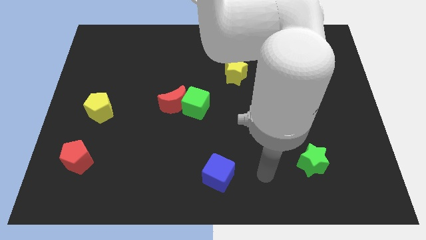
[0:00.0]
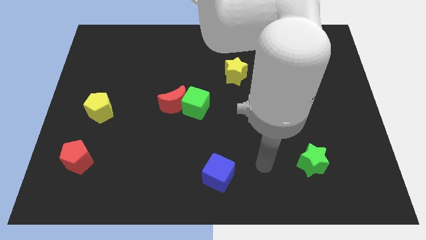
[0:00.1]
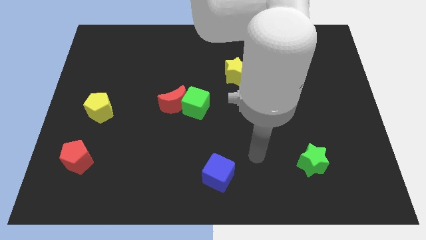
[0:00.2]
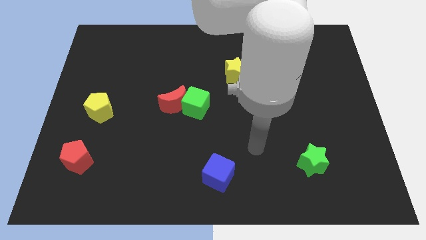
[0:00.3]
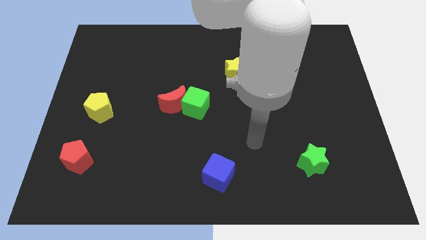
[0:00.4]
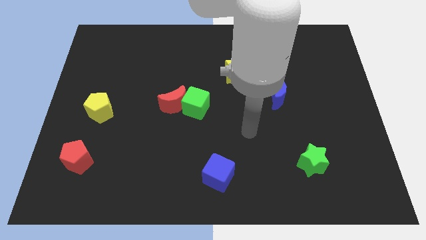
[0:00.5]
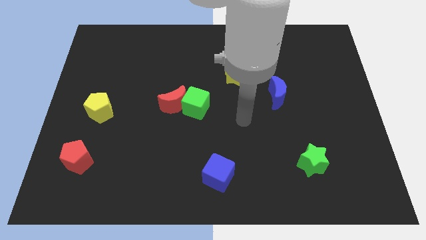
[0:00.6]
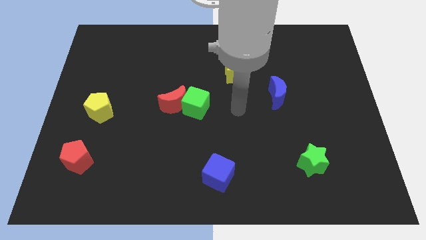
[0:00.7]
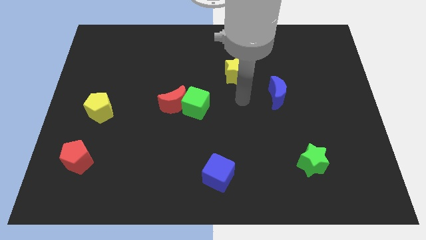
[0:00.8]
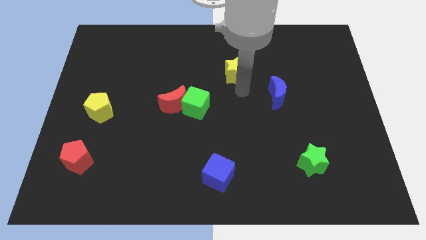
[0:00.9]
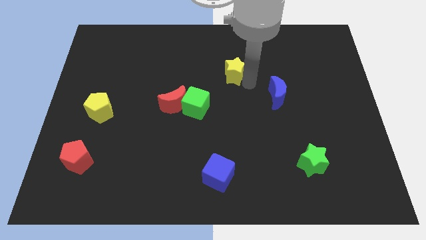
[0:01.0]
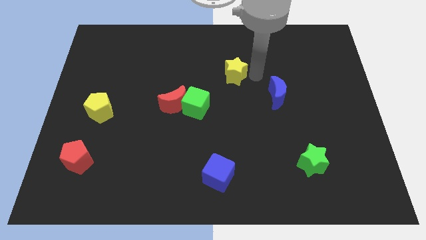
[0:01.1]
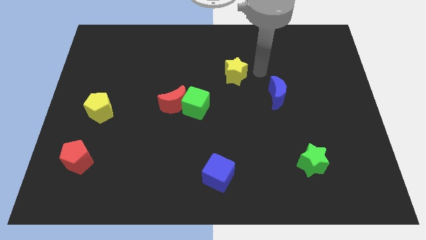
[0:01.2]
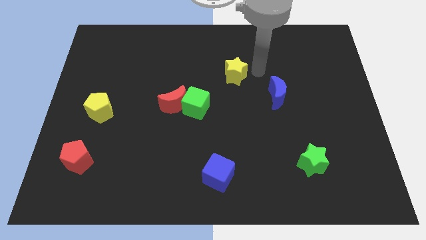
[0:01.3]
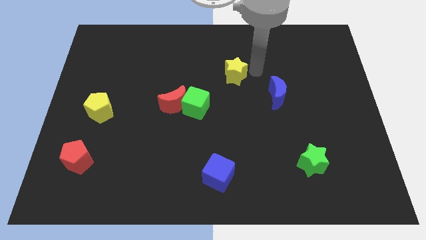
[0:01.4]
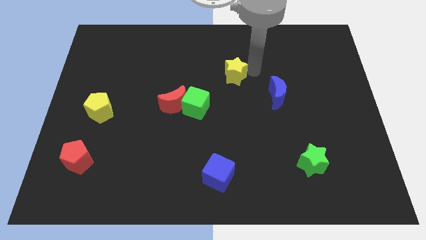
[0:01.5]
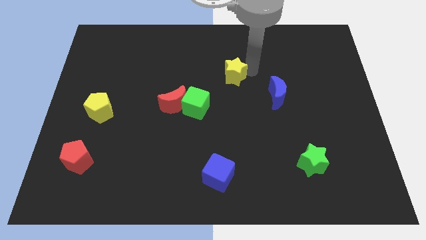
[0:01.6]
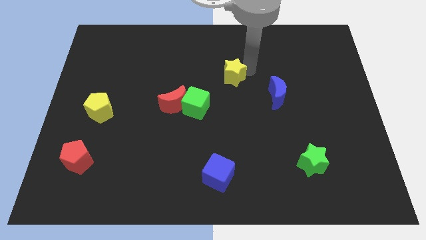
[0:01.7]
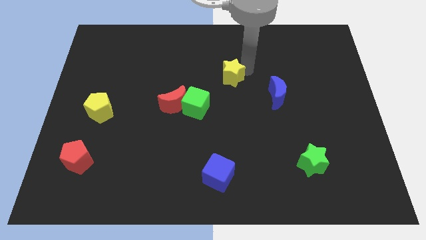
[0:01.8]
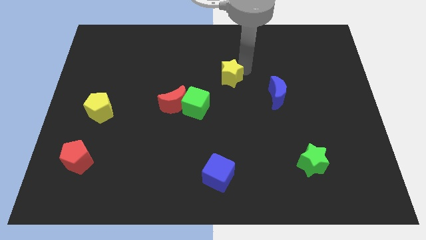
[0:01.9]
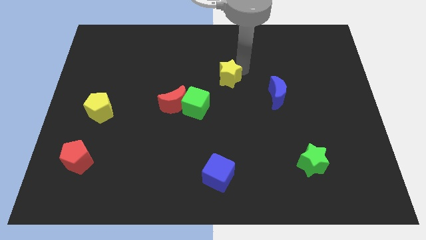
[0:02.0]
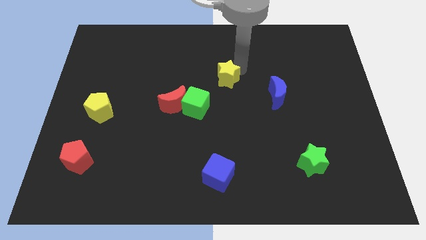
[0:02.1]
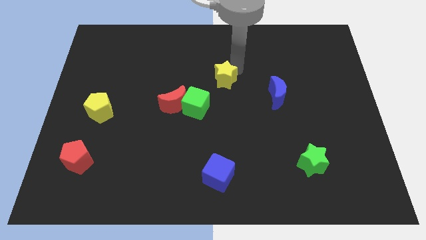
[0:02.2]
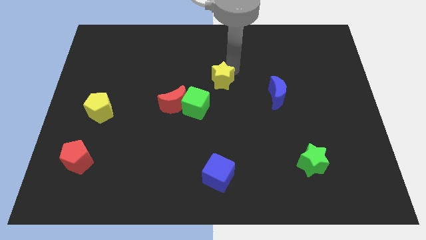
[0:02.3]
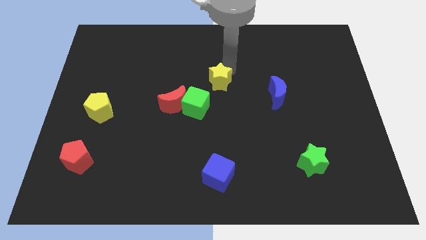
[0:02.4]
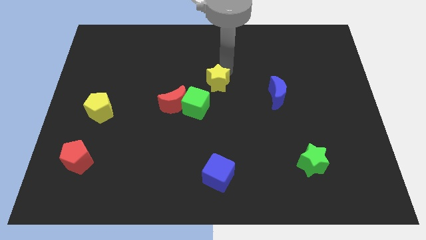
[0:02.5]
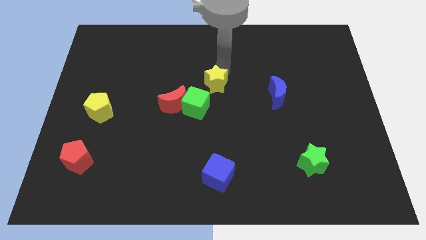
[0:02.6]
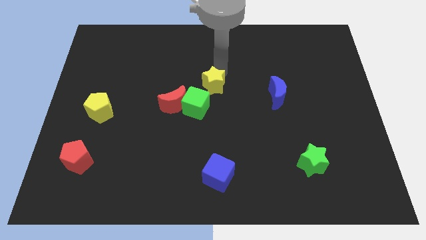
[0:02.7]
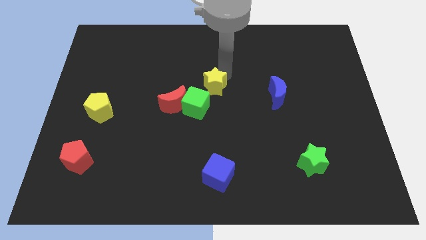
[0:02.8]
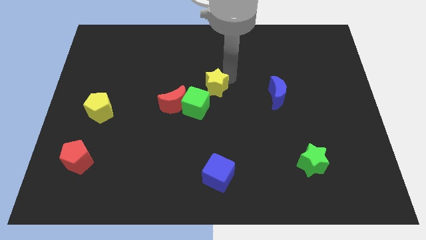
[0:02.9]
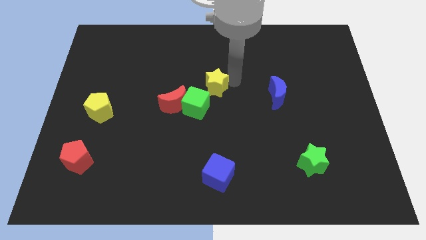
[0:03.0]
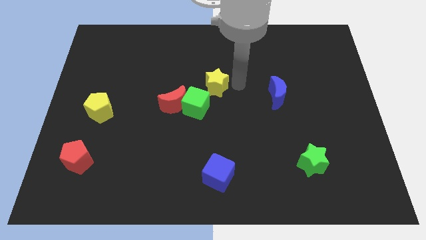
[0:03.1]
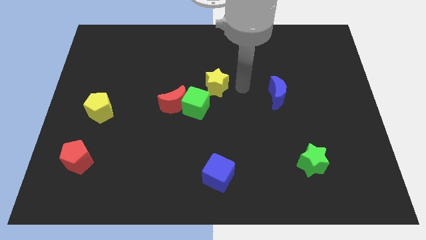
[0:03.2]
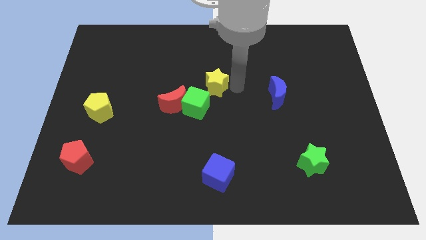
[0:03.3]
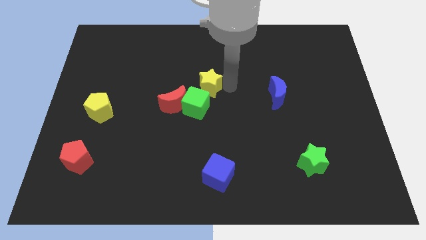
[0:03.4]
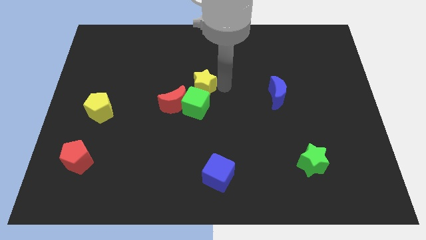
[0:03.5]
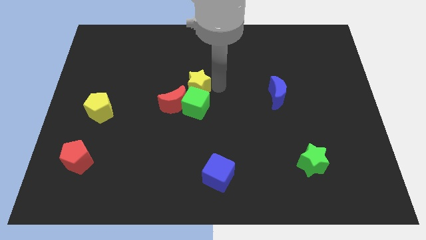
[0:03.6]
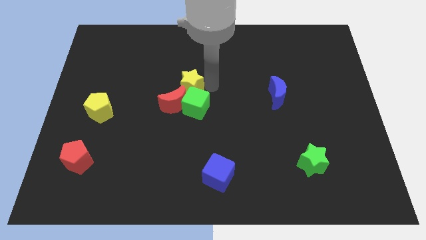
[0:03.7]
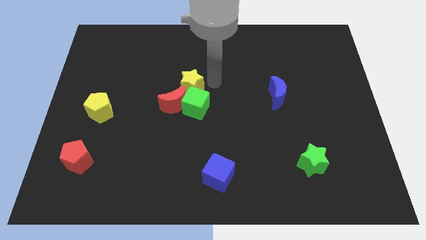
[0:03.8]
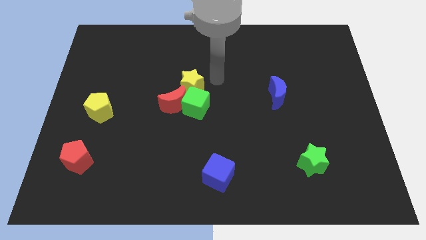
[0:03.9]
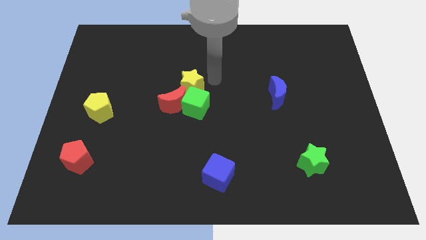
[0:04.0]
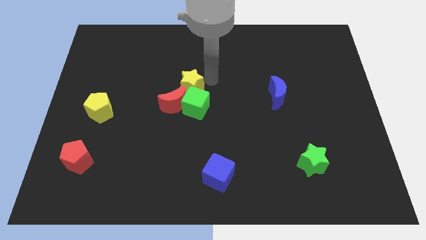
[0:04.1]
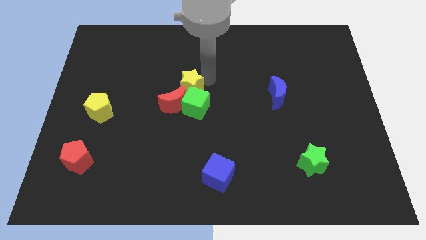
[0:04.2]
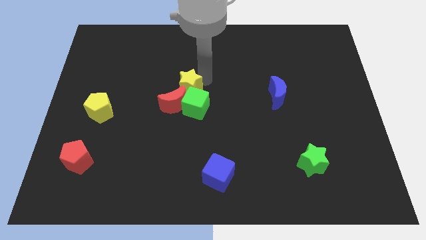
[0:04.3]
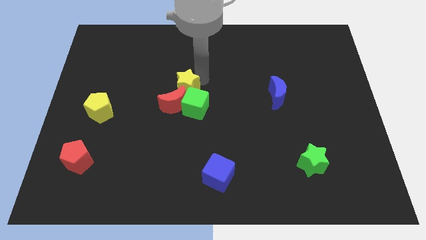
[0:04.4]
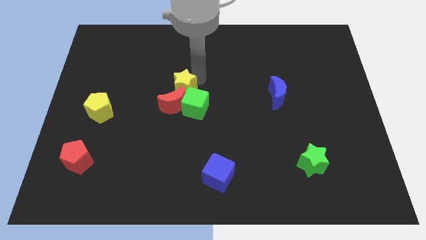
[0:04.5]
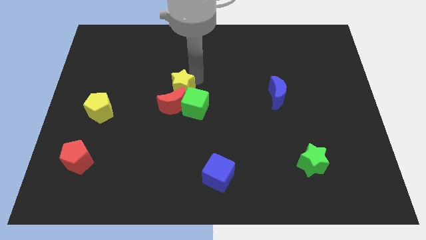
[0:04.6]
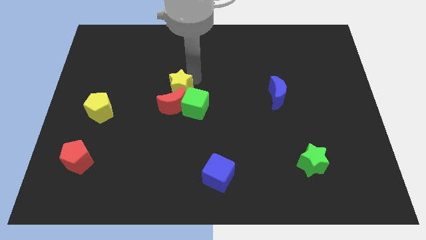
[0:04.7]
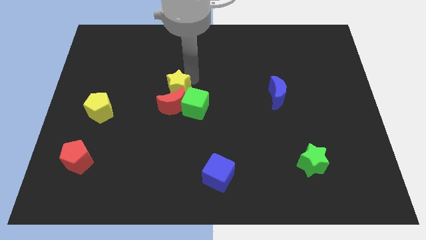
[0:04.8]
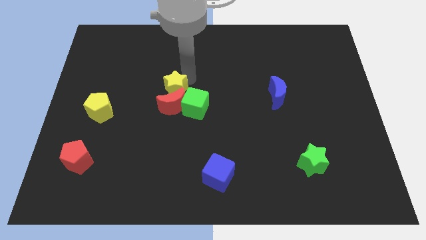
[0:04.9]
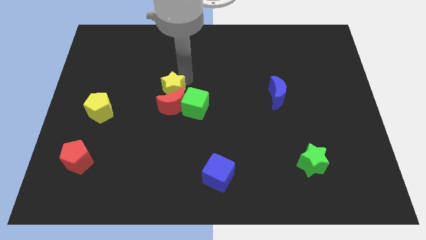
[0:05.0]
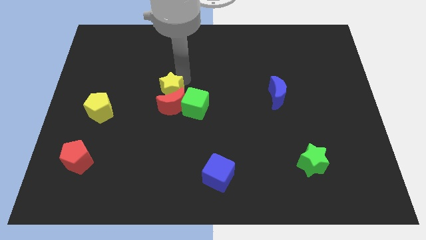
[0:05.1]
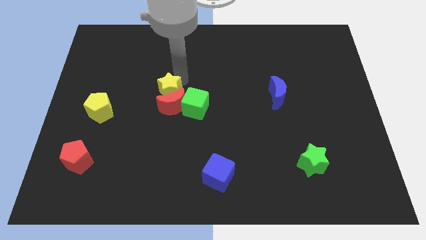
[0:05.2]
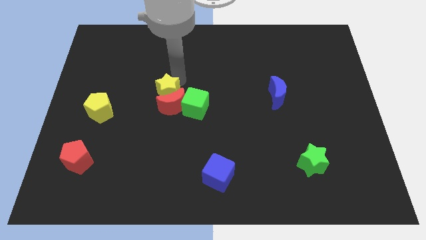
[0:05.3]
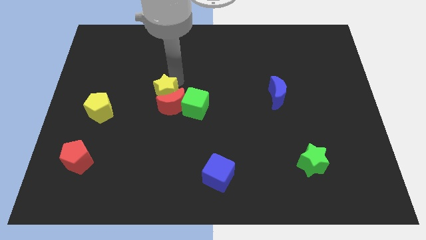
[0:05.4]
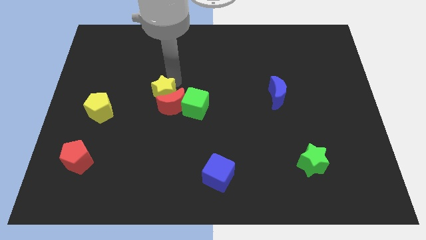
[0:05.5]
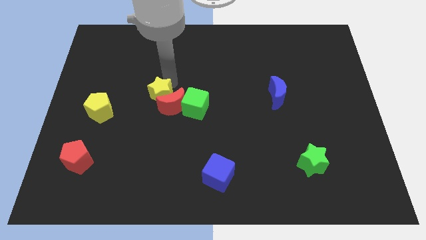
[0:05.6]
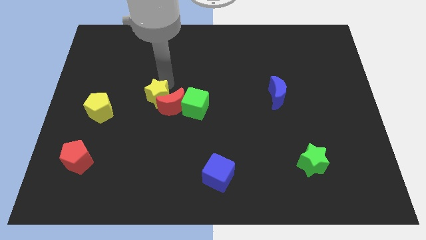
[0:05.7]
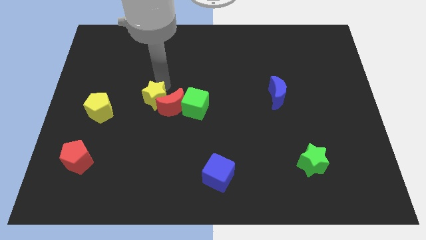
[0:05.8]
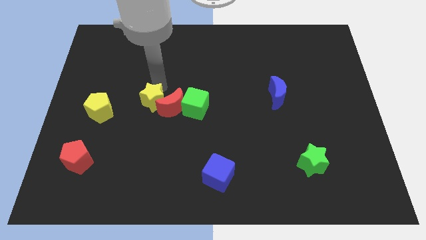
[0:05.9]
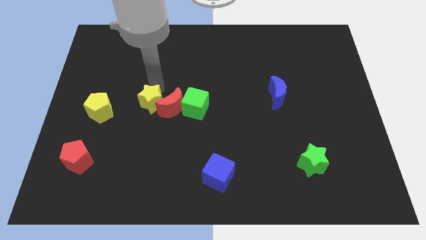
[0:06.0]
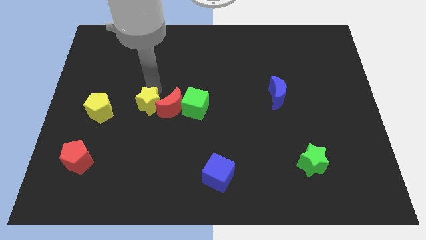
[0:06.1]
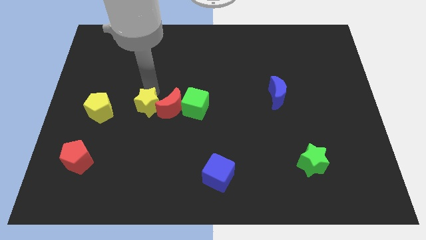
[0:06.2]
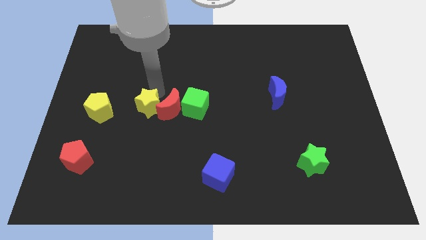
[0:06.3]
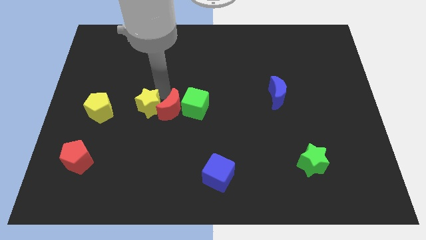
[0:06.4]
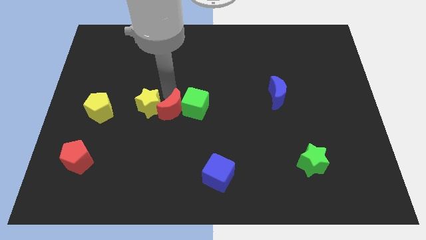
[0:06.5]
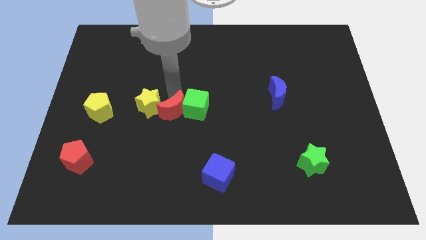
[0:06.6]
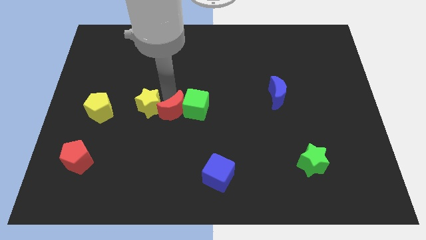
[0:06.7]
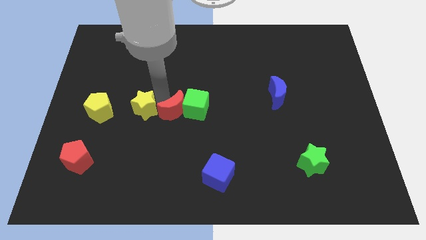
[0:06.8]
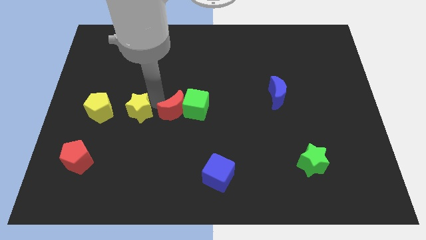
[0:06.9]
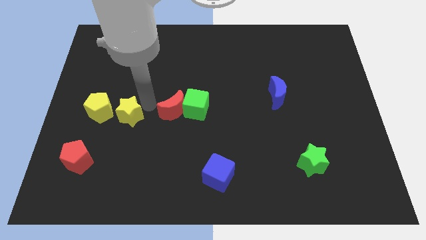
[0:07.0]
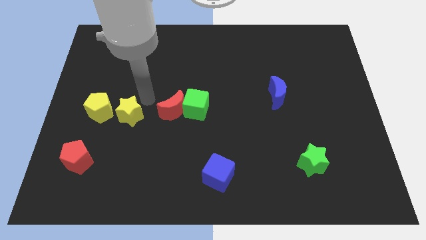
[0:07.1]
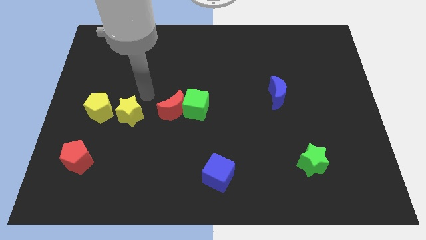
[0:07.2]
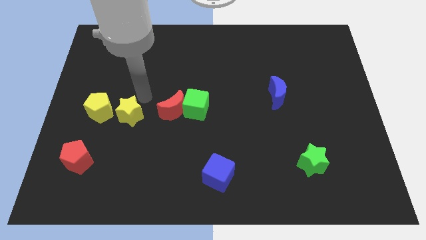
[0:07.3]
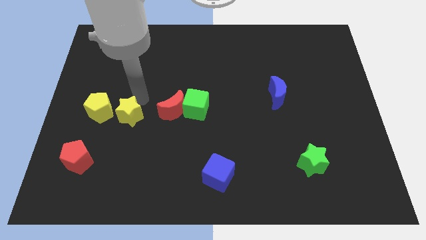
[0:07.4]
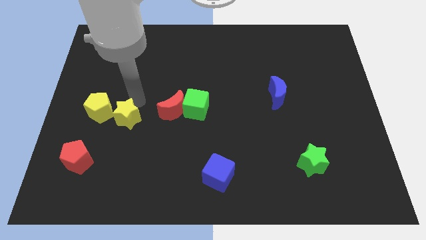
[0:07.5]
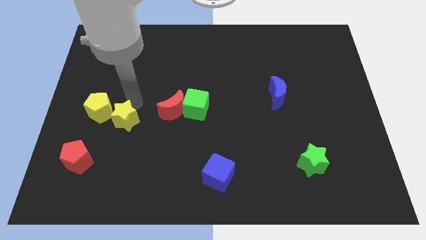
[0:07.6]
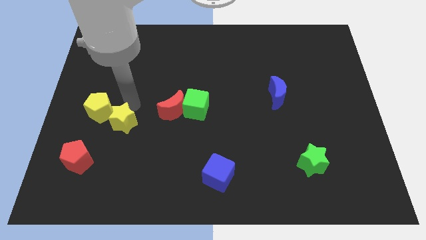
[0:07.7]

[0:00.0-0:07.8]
push the yellow star diagonally up and to the right of the red pentagon
